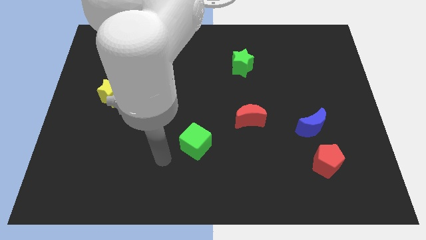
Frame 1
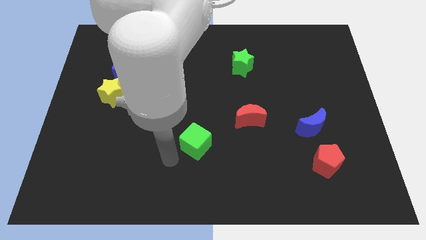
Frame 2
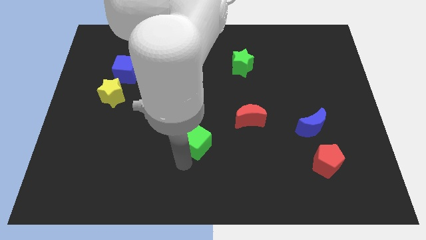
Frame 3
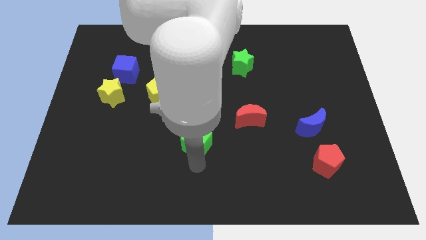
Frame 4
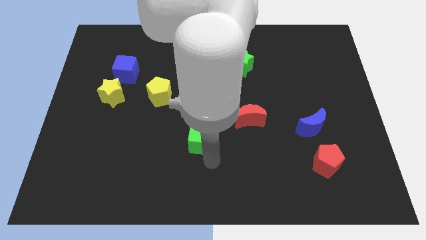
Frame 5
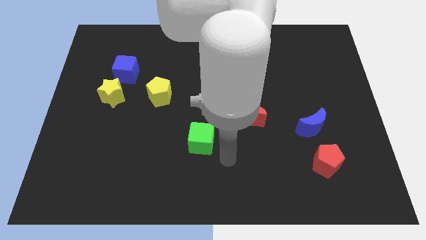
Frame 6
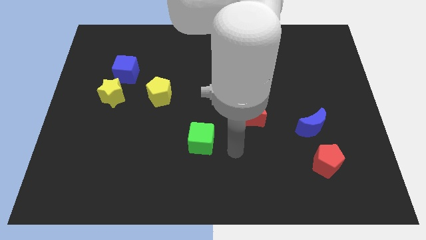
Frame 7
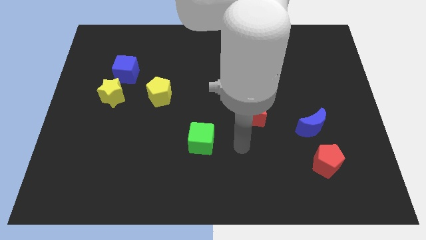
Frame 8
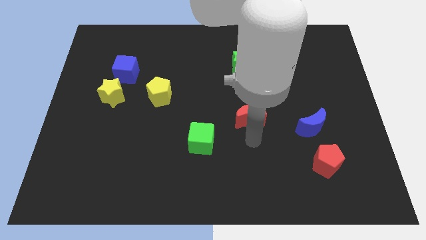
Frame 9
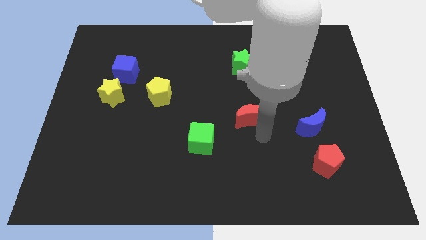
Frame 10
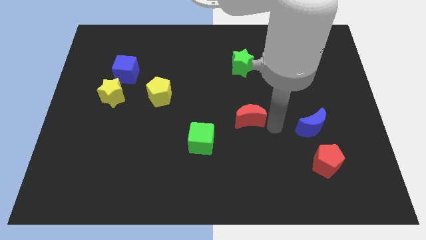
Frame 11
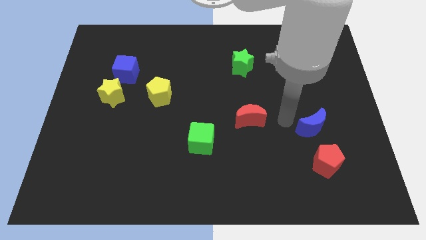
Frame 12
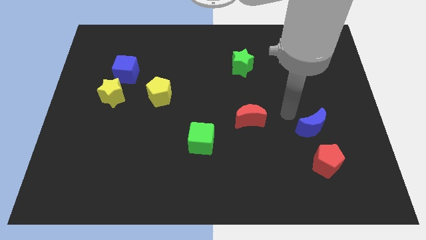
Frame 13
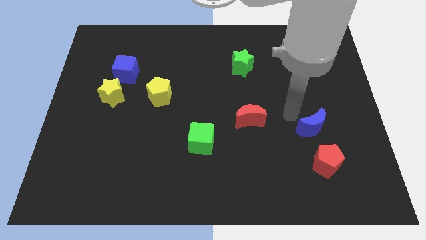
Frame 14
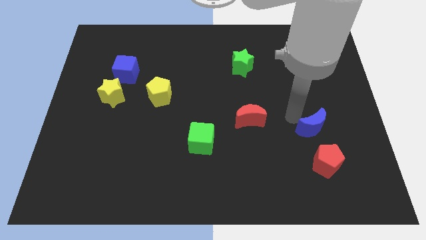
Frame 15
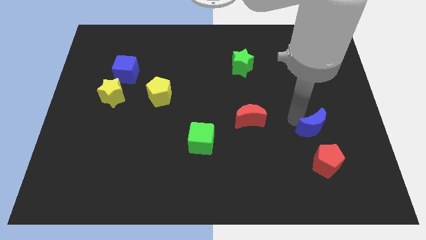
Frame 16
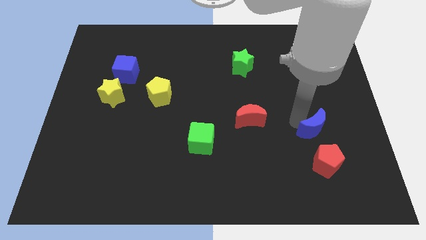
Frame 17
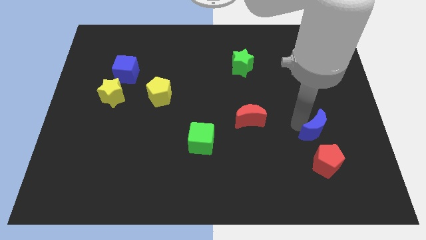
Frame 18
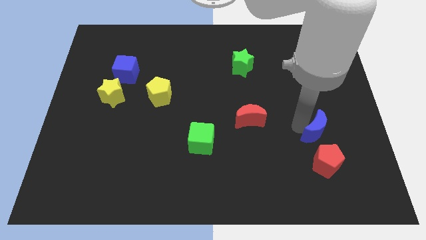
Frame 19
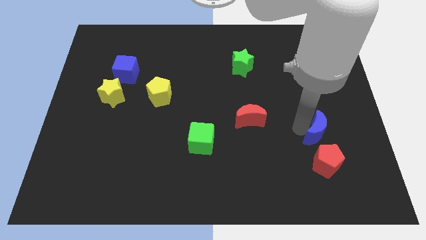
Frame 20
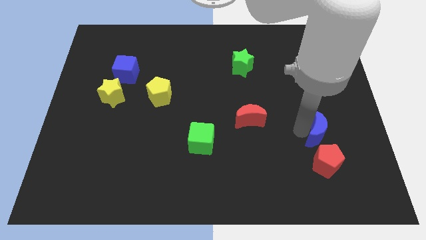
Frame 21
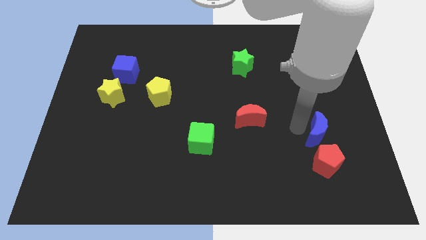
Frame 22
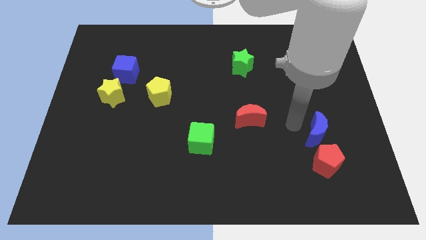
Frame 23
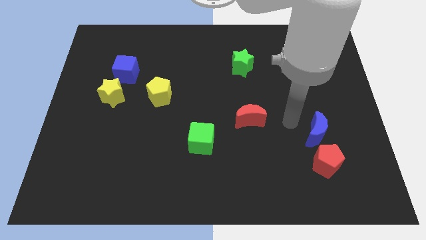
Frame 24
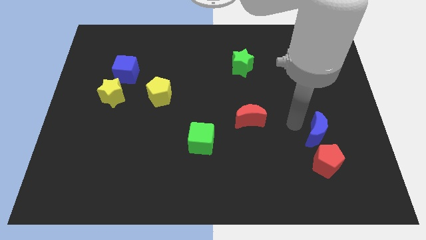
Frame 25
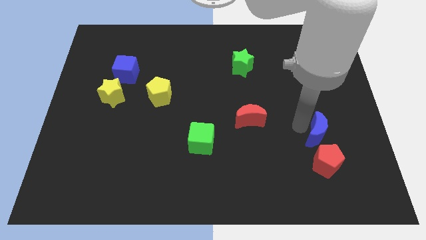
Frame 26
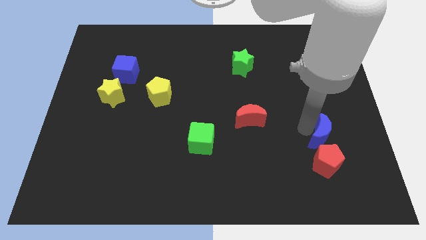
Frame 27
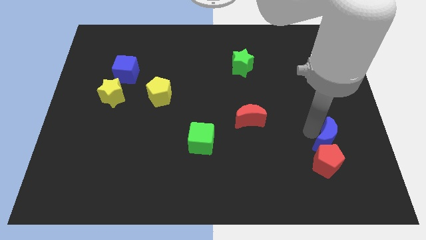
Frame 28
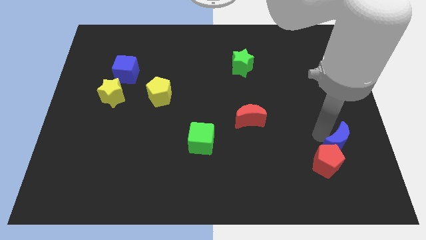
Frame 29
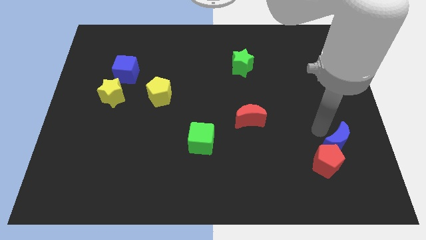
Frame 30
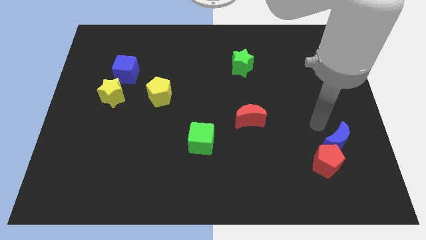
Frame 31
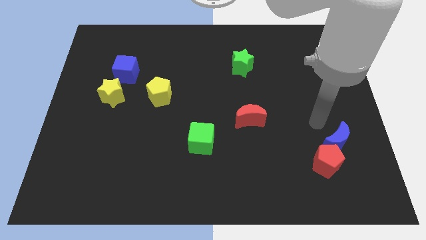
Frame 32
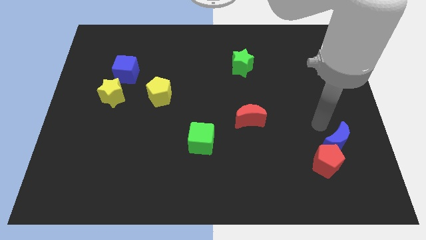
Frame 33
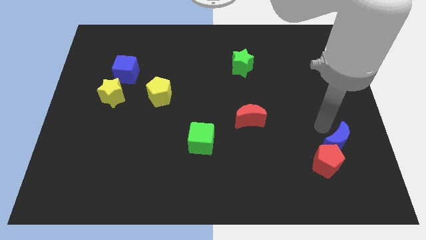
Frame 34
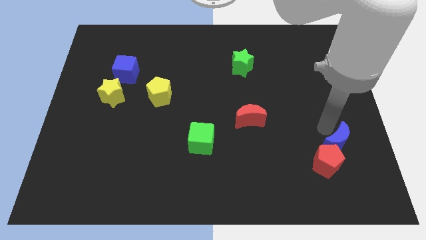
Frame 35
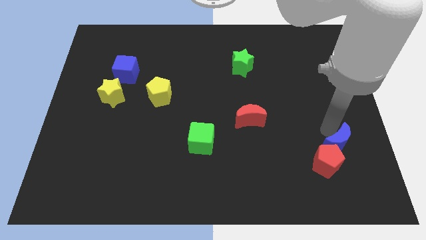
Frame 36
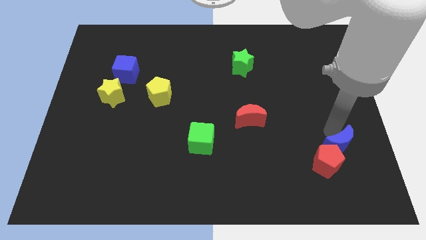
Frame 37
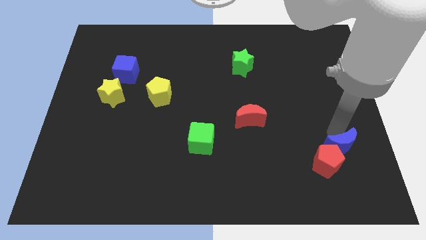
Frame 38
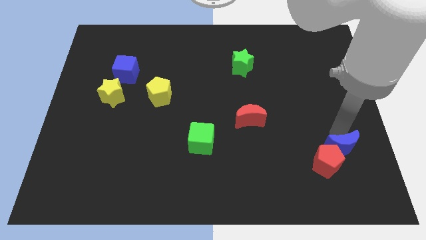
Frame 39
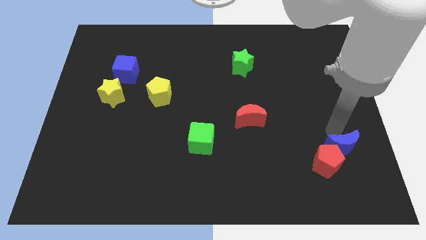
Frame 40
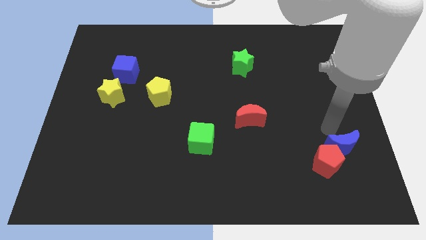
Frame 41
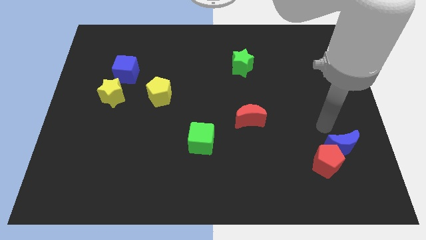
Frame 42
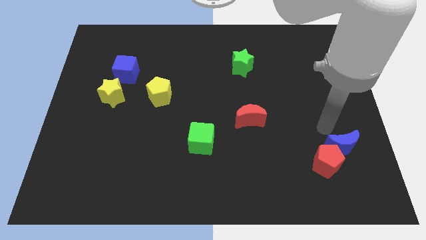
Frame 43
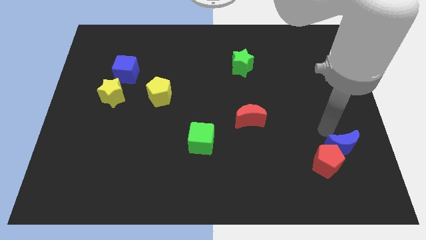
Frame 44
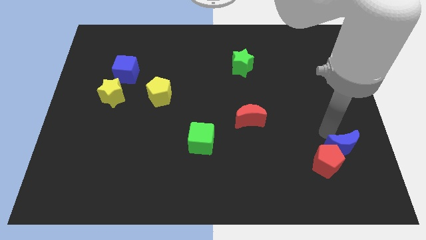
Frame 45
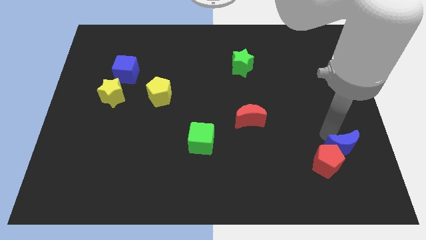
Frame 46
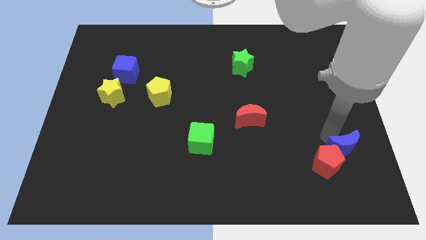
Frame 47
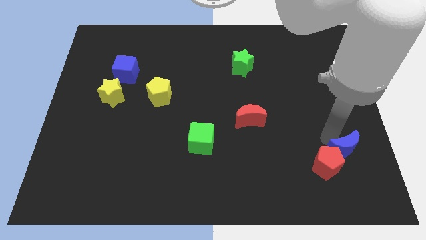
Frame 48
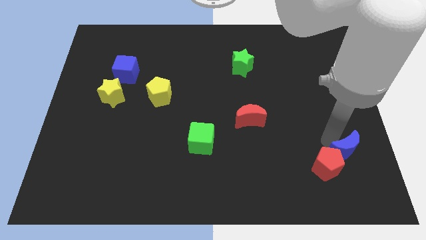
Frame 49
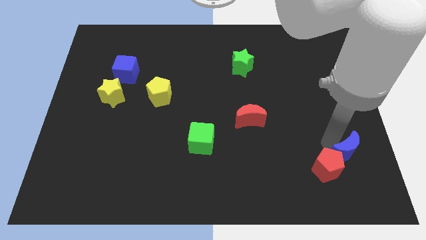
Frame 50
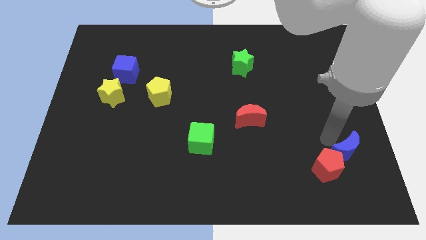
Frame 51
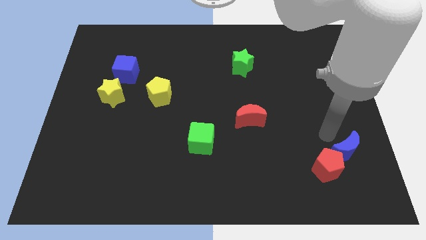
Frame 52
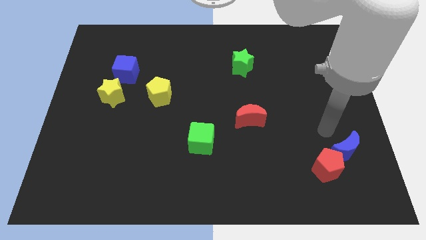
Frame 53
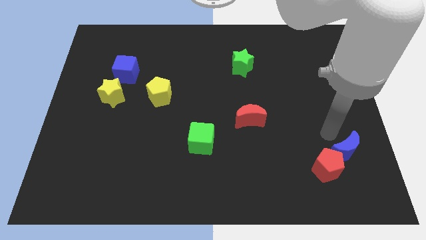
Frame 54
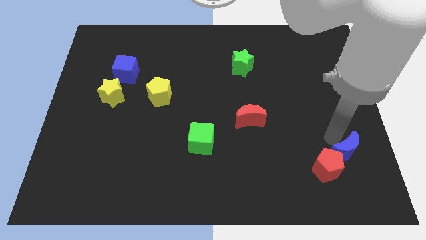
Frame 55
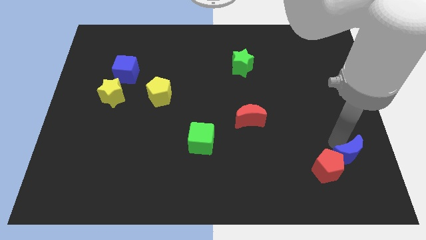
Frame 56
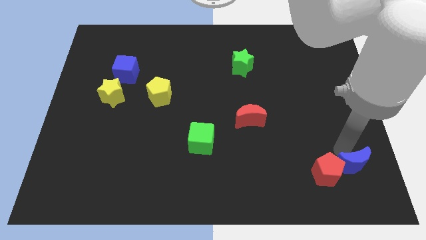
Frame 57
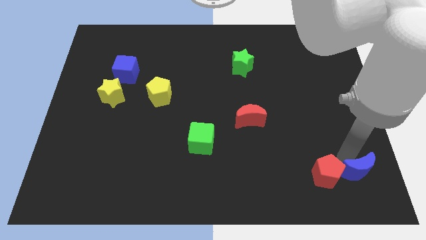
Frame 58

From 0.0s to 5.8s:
slide the blue moon to the bottom right
